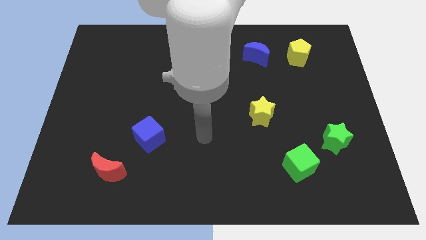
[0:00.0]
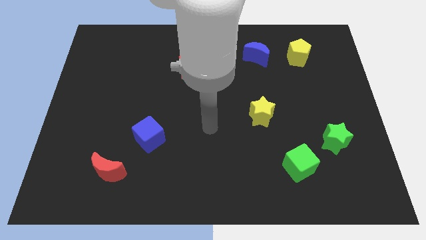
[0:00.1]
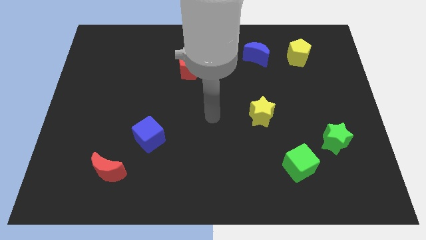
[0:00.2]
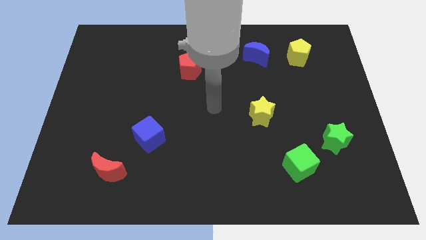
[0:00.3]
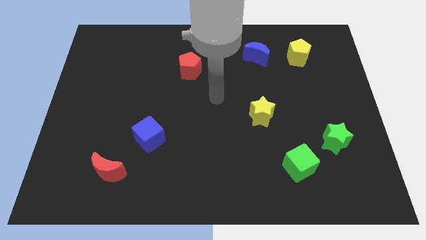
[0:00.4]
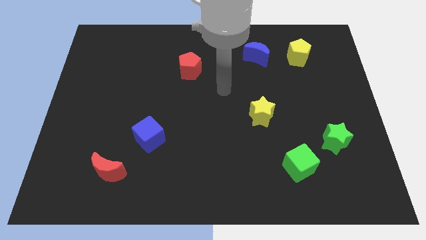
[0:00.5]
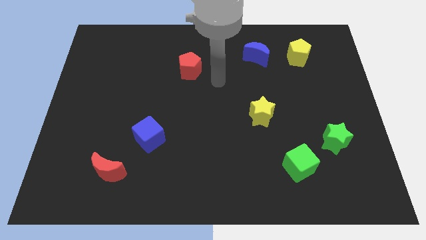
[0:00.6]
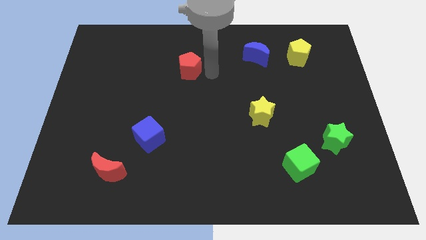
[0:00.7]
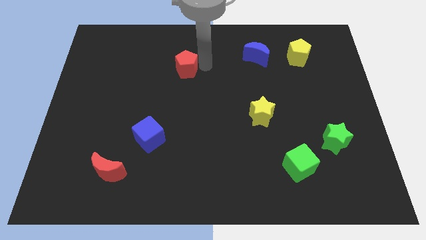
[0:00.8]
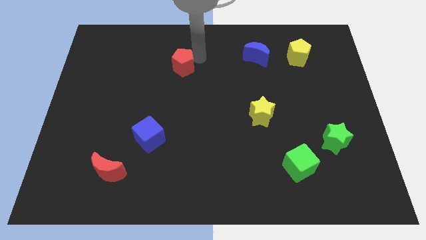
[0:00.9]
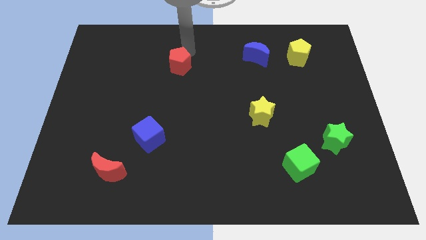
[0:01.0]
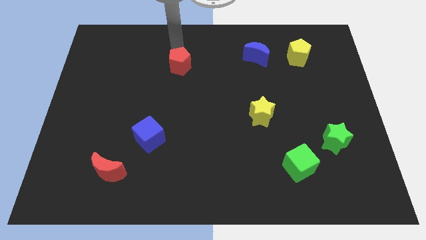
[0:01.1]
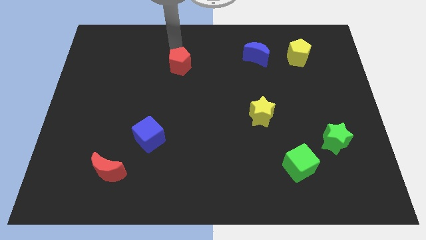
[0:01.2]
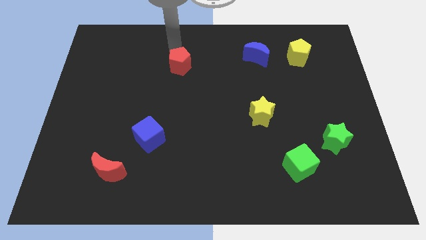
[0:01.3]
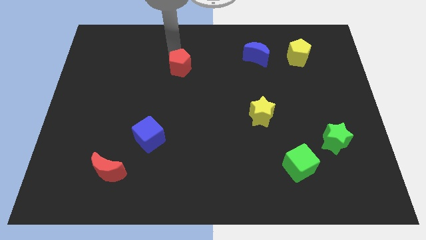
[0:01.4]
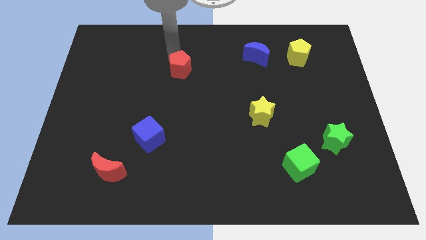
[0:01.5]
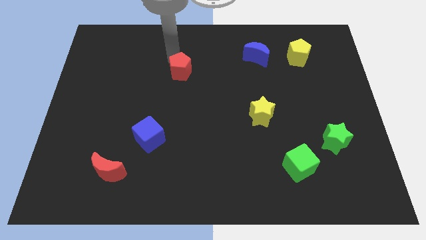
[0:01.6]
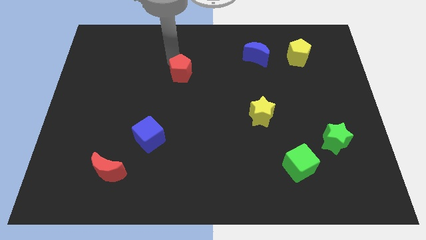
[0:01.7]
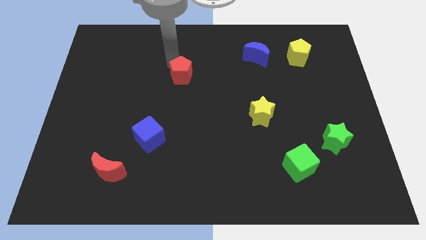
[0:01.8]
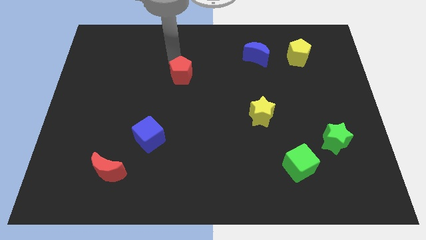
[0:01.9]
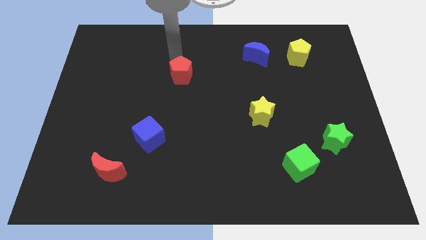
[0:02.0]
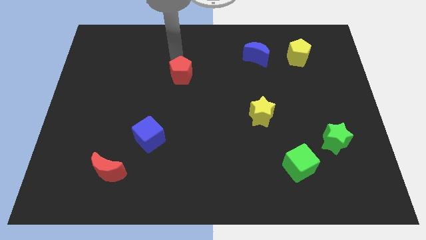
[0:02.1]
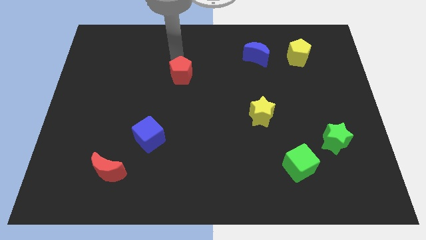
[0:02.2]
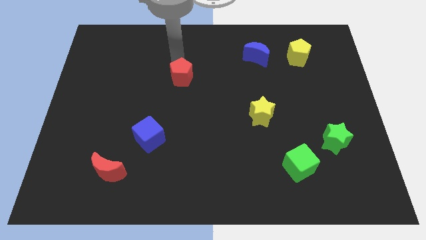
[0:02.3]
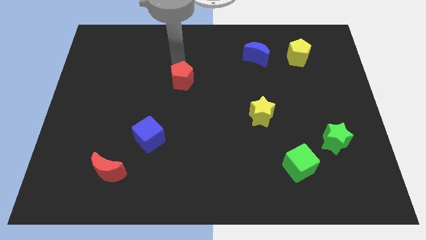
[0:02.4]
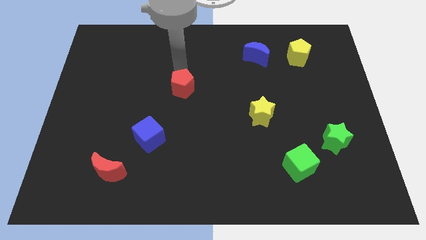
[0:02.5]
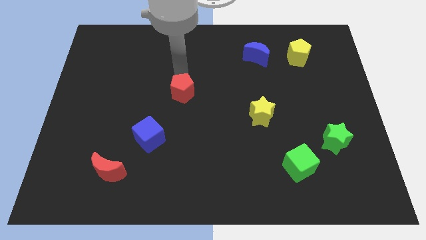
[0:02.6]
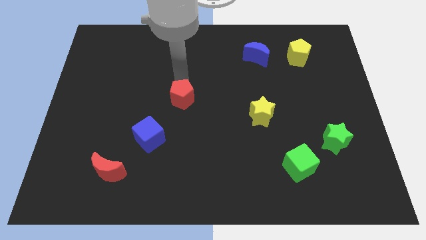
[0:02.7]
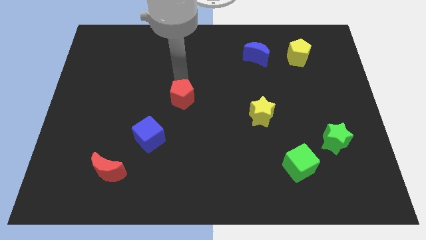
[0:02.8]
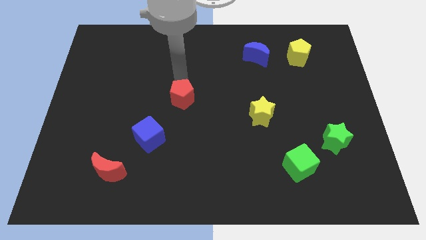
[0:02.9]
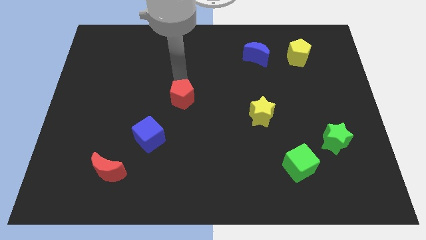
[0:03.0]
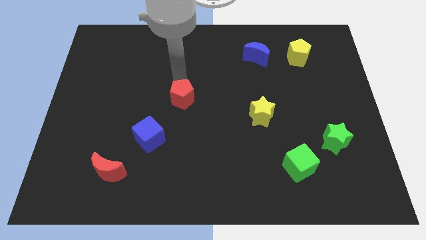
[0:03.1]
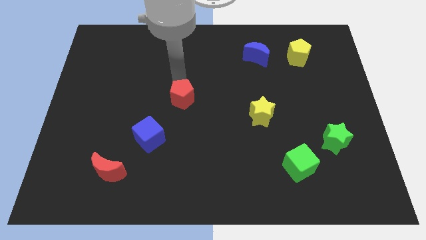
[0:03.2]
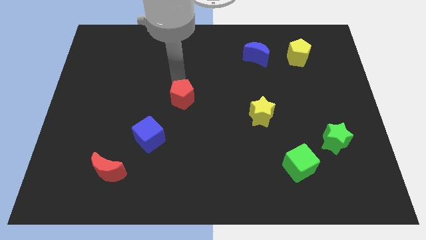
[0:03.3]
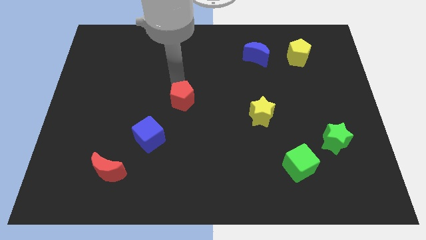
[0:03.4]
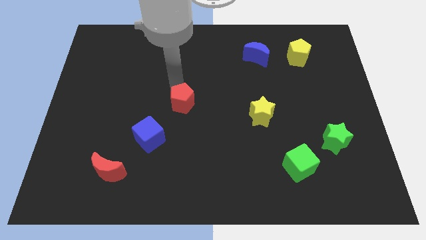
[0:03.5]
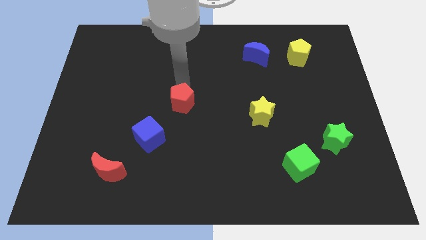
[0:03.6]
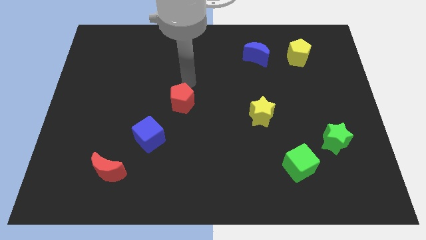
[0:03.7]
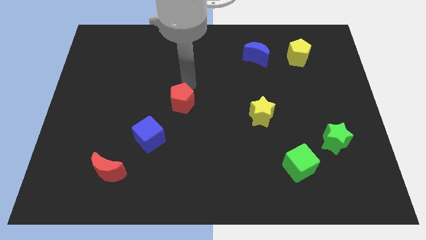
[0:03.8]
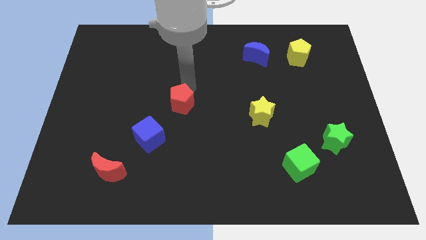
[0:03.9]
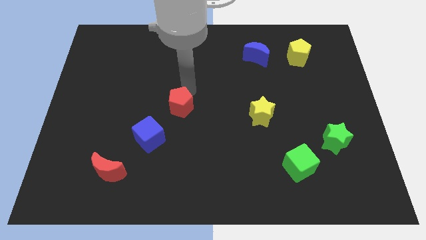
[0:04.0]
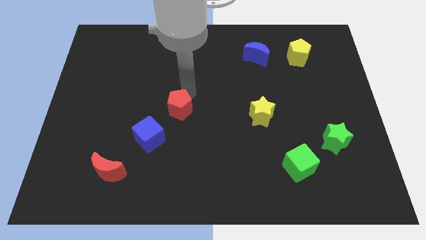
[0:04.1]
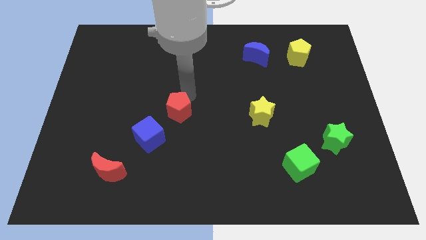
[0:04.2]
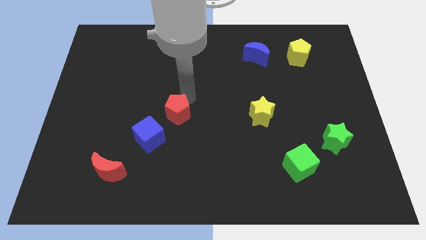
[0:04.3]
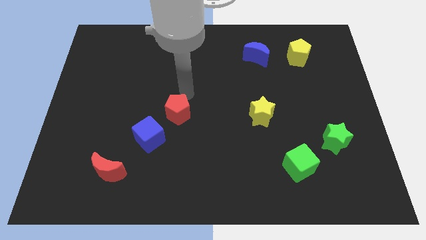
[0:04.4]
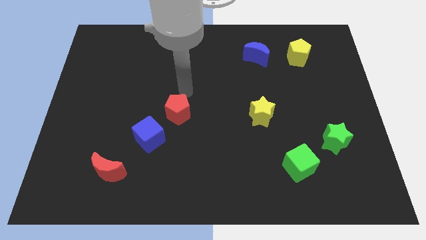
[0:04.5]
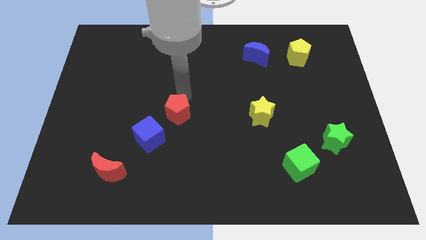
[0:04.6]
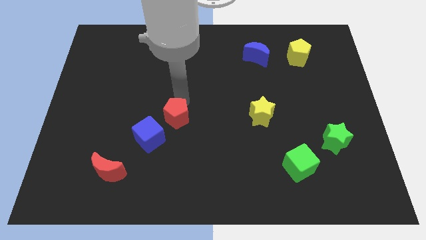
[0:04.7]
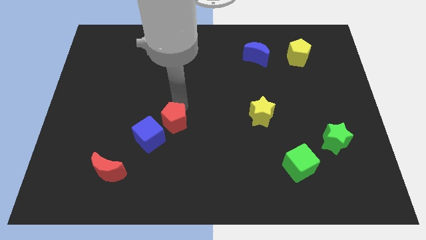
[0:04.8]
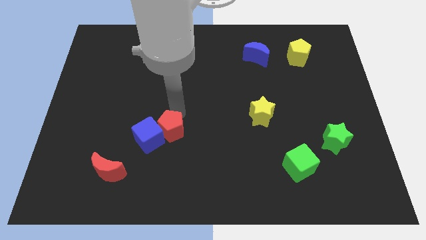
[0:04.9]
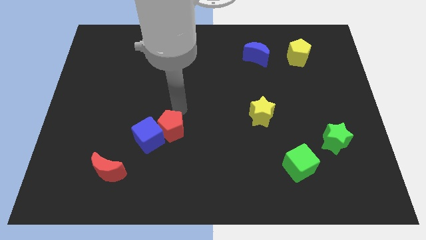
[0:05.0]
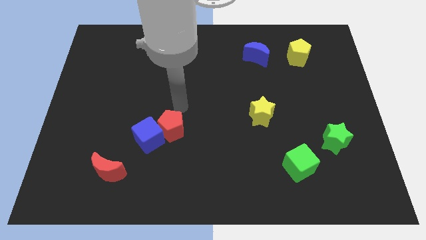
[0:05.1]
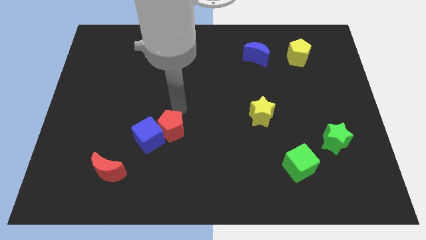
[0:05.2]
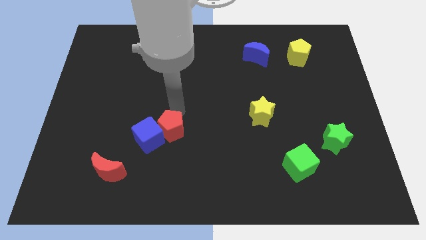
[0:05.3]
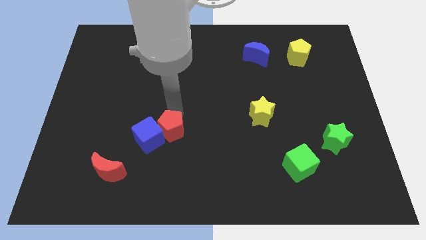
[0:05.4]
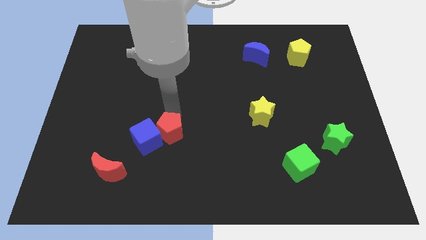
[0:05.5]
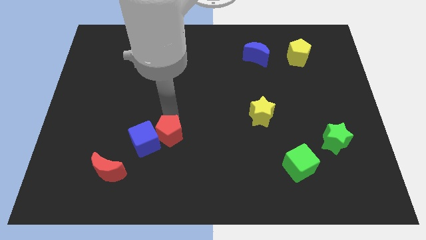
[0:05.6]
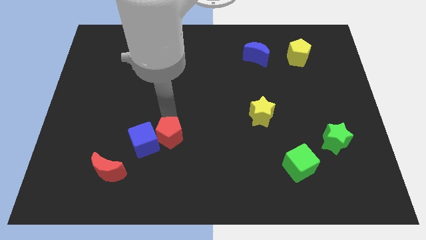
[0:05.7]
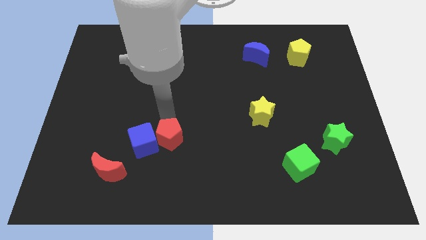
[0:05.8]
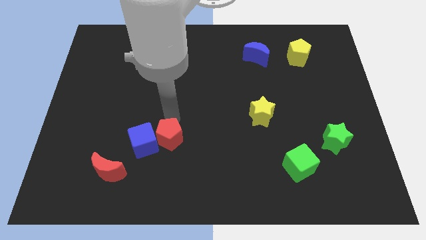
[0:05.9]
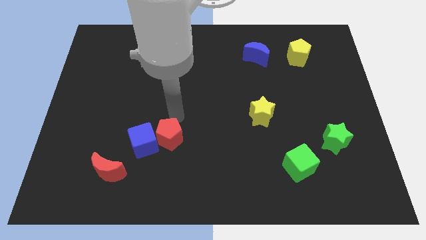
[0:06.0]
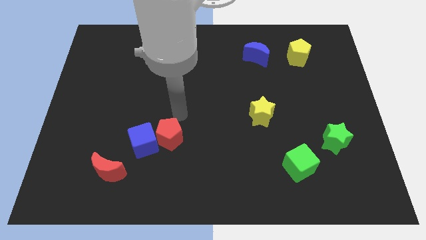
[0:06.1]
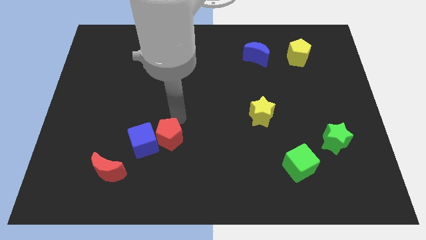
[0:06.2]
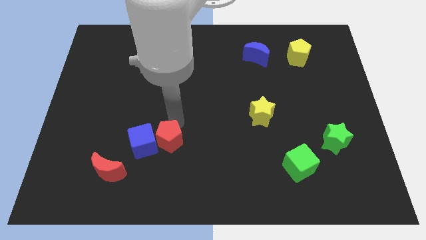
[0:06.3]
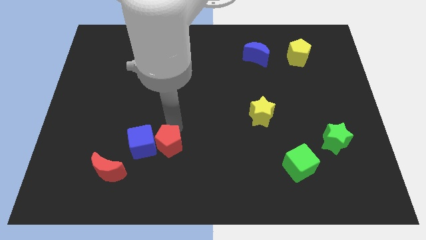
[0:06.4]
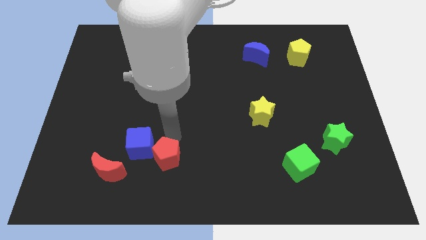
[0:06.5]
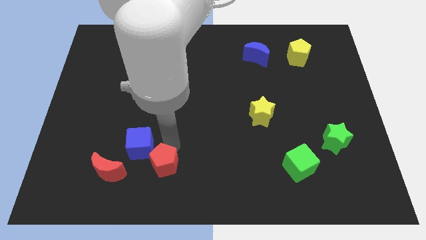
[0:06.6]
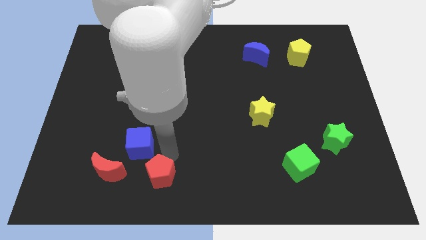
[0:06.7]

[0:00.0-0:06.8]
put the red pentagon to the bottom side of the blue cube

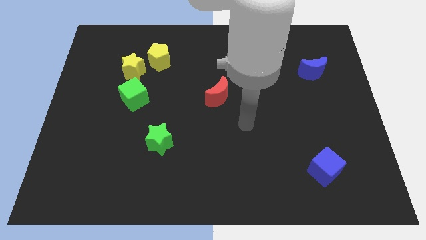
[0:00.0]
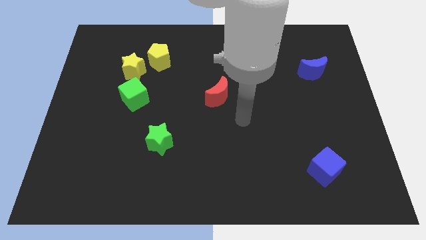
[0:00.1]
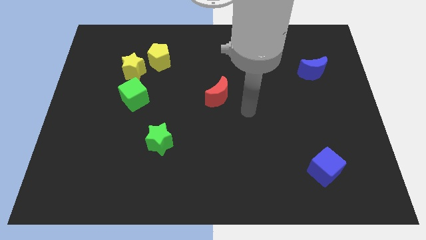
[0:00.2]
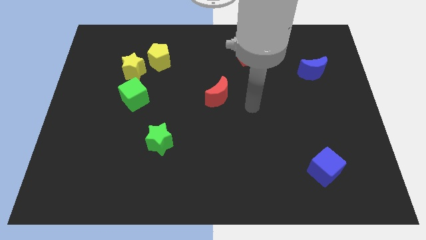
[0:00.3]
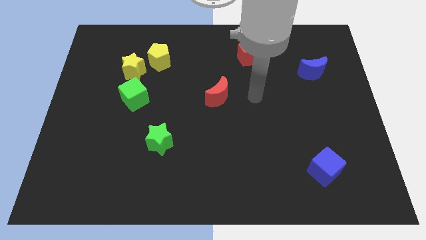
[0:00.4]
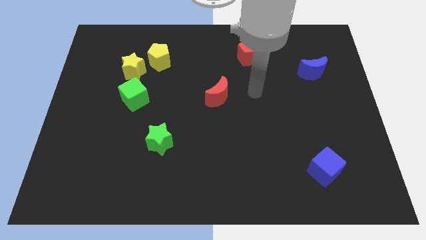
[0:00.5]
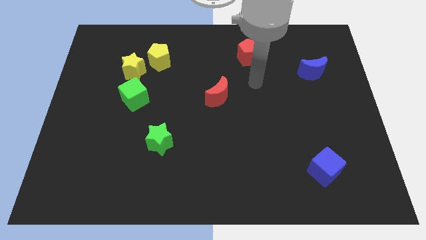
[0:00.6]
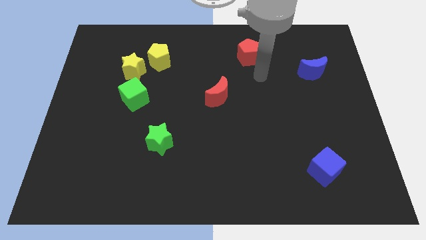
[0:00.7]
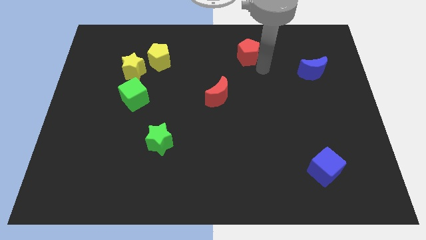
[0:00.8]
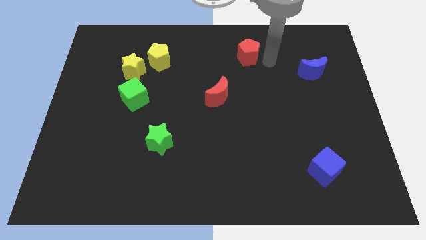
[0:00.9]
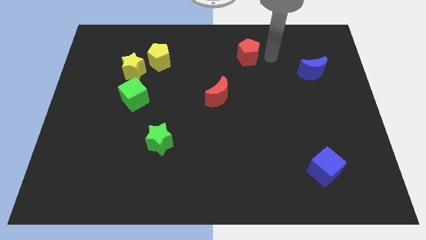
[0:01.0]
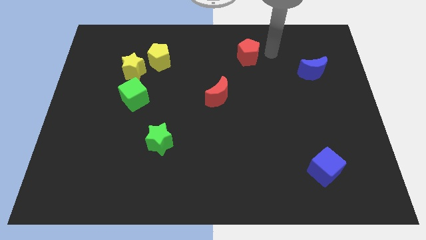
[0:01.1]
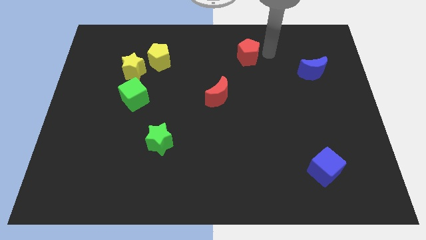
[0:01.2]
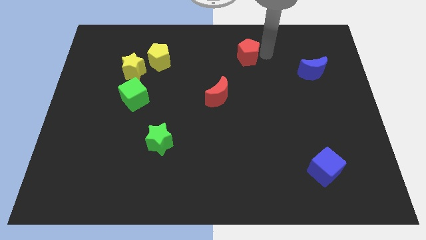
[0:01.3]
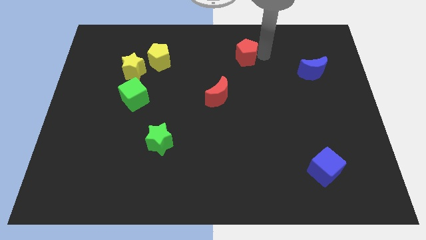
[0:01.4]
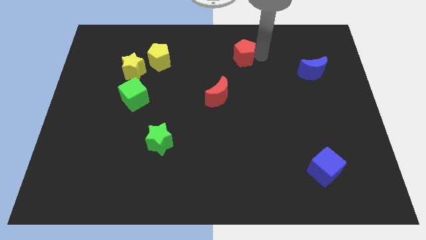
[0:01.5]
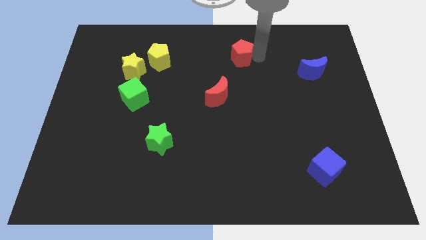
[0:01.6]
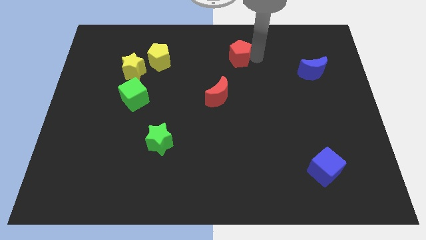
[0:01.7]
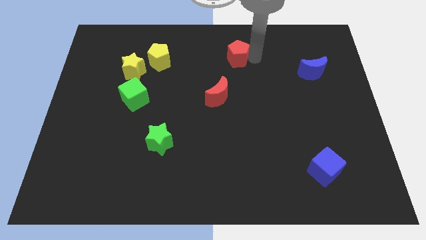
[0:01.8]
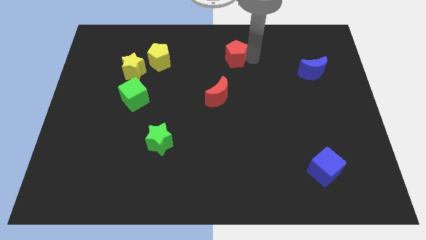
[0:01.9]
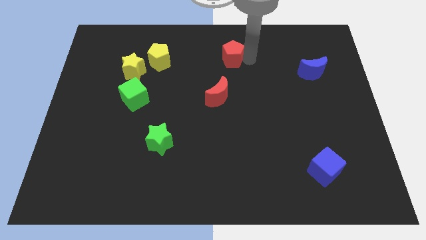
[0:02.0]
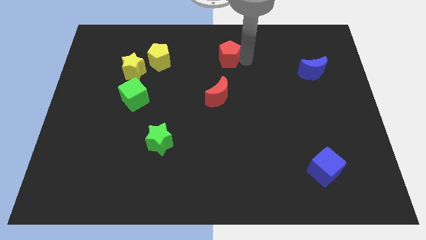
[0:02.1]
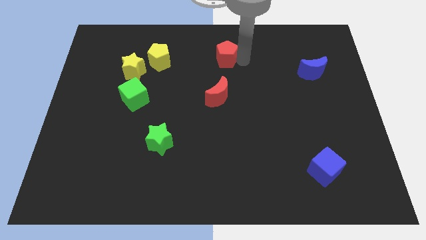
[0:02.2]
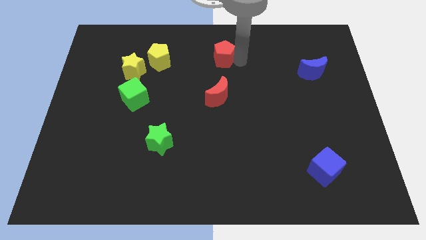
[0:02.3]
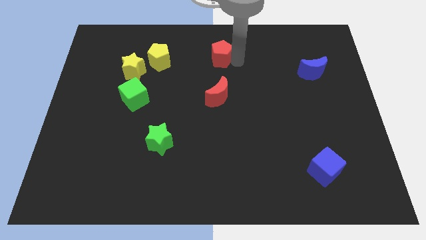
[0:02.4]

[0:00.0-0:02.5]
move the red pentagon right of the yellow pentagon
